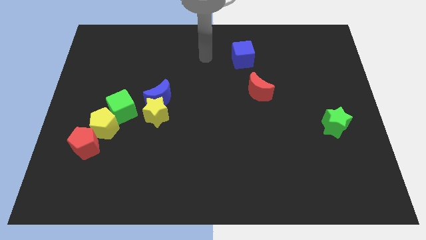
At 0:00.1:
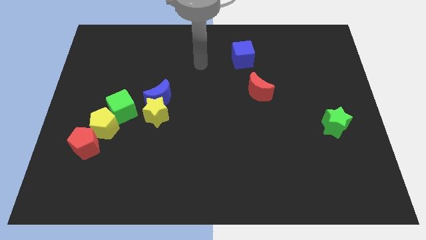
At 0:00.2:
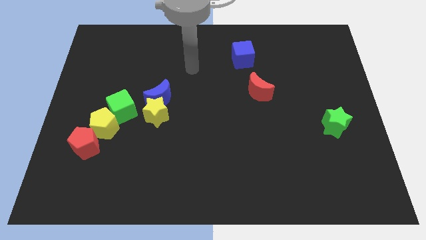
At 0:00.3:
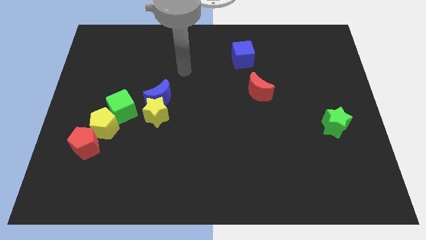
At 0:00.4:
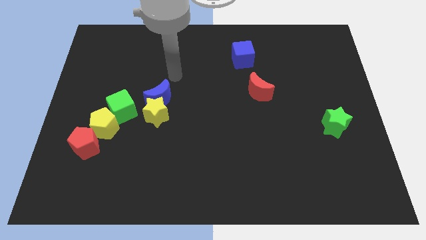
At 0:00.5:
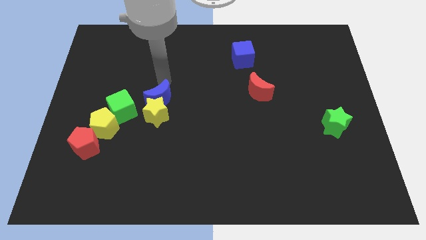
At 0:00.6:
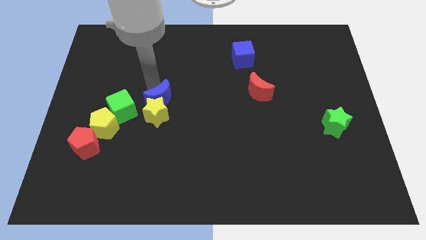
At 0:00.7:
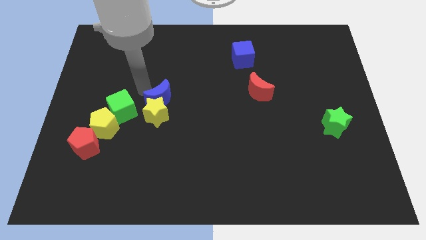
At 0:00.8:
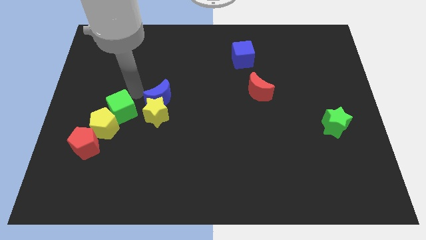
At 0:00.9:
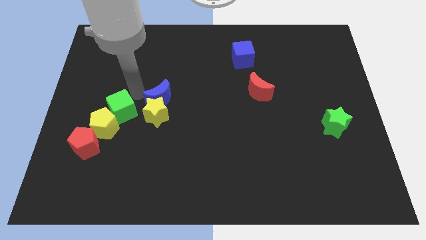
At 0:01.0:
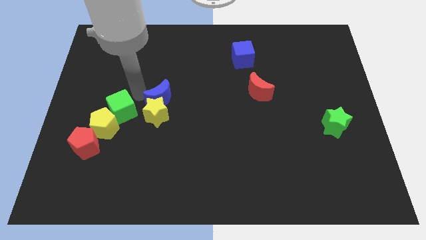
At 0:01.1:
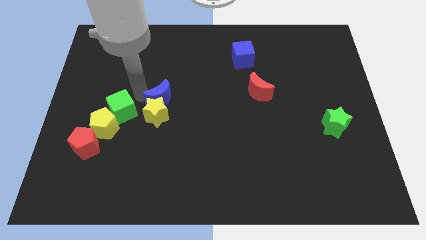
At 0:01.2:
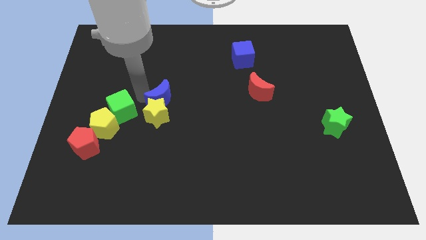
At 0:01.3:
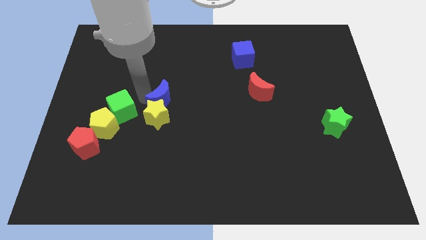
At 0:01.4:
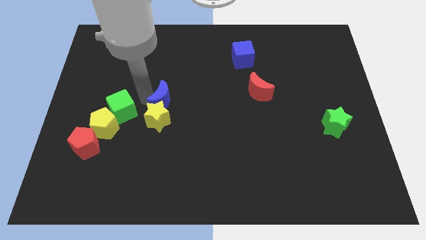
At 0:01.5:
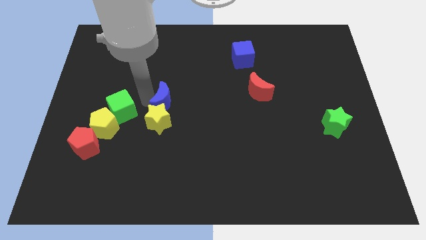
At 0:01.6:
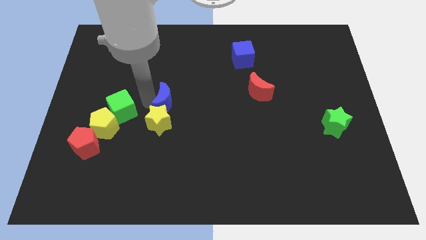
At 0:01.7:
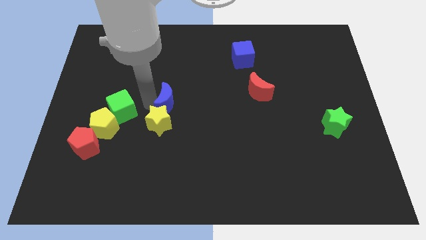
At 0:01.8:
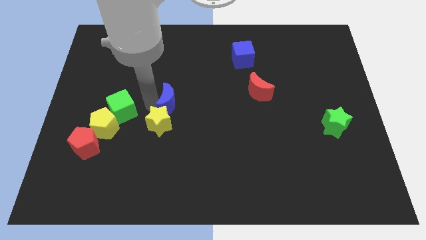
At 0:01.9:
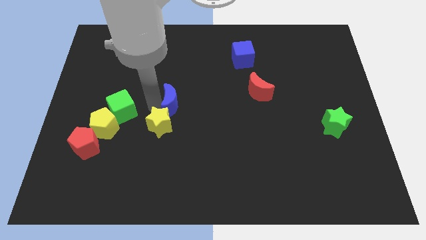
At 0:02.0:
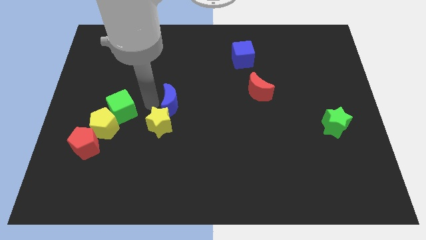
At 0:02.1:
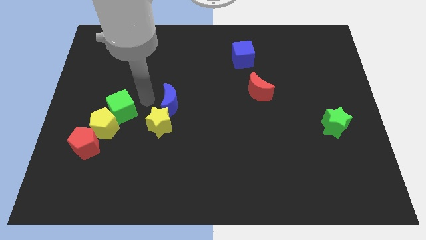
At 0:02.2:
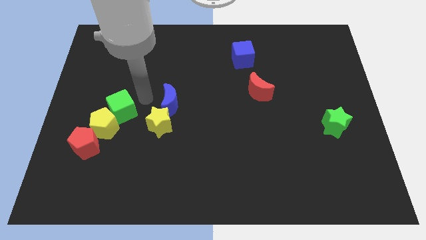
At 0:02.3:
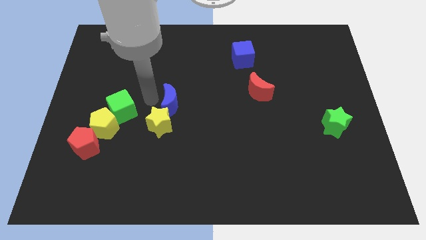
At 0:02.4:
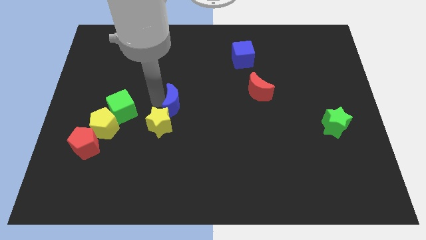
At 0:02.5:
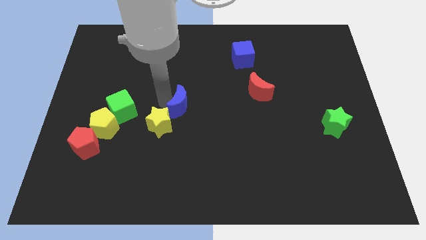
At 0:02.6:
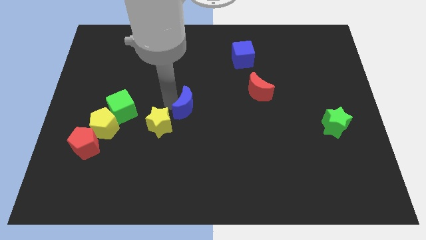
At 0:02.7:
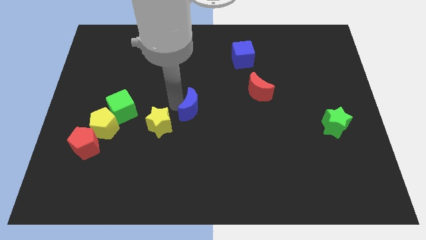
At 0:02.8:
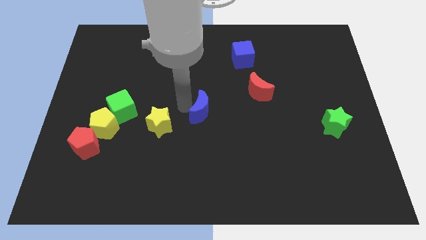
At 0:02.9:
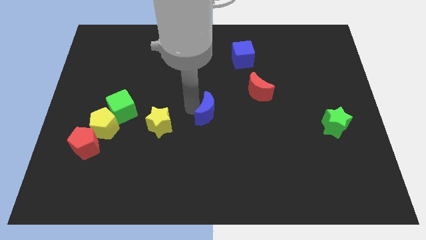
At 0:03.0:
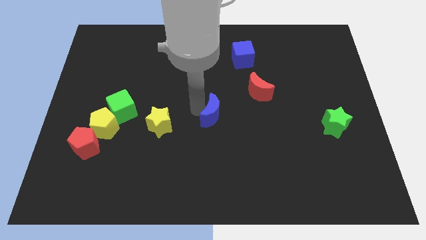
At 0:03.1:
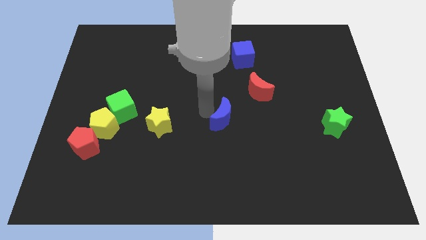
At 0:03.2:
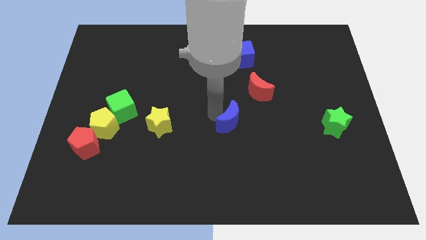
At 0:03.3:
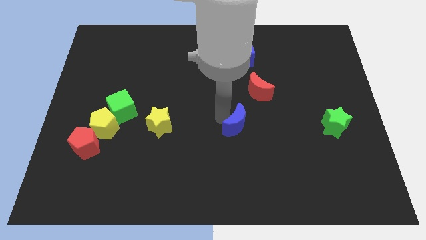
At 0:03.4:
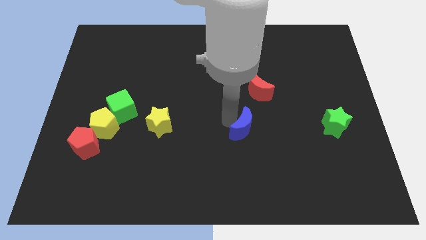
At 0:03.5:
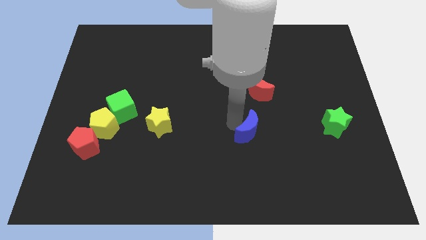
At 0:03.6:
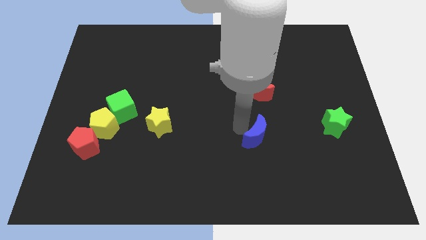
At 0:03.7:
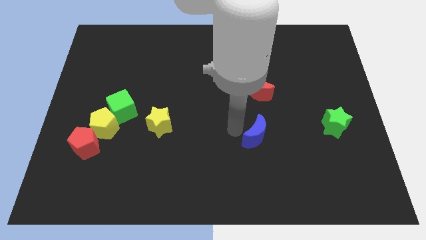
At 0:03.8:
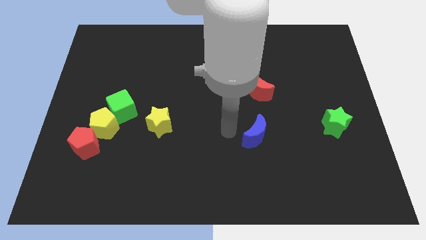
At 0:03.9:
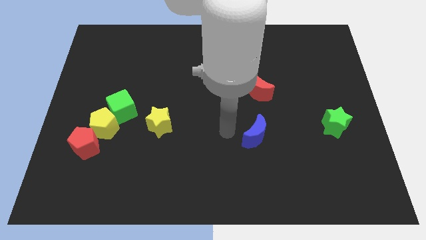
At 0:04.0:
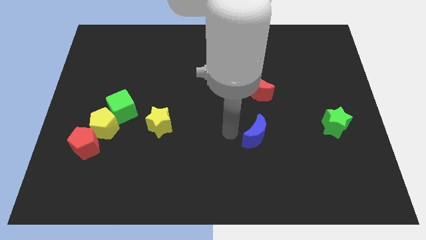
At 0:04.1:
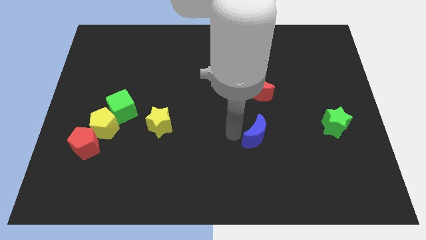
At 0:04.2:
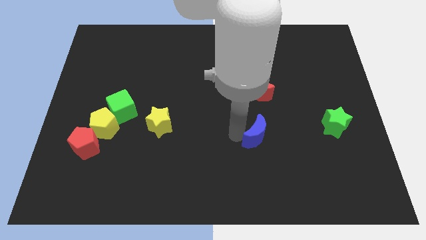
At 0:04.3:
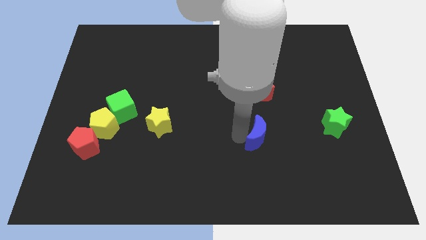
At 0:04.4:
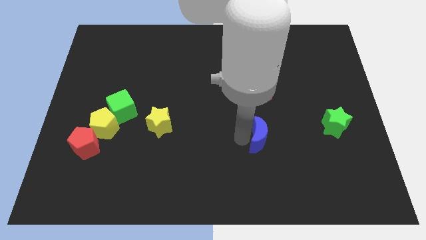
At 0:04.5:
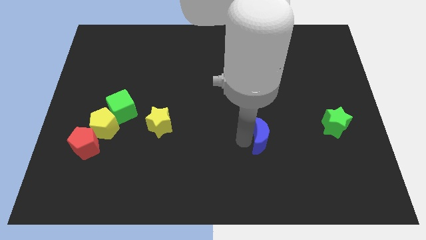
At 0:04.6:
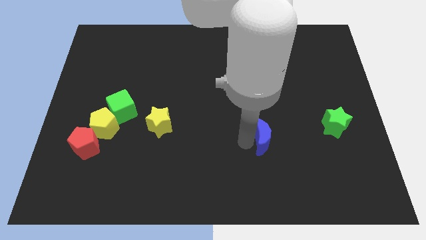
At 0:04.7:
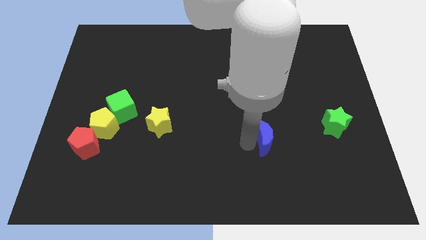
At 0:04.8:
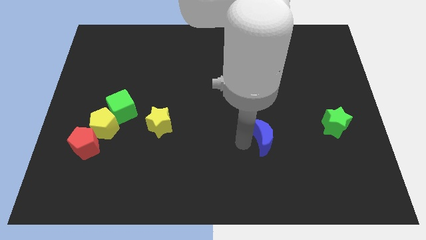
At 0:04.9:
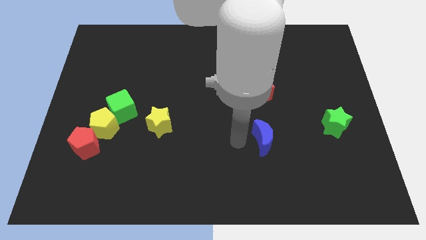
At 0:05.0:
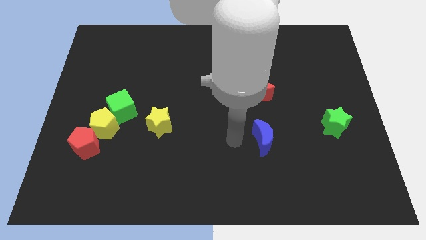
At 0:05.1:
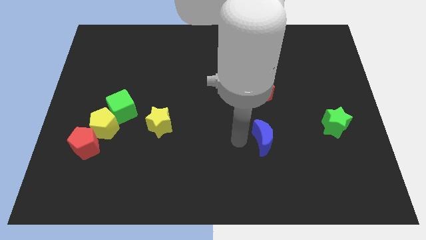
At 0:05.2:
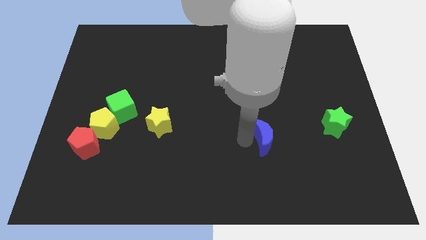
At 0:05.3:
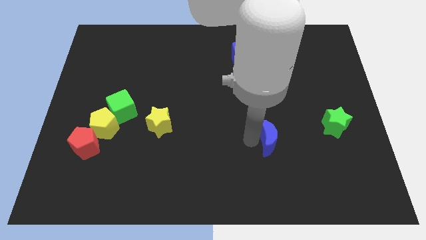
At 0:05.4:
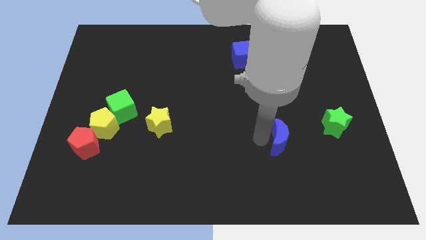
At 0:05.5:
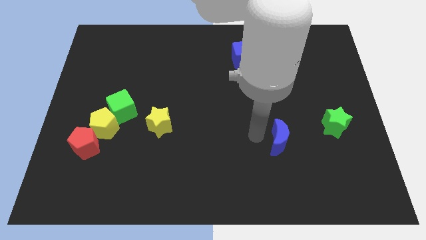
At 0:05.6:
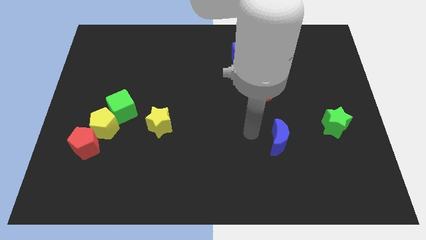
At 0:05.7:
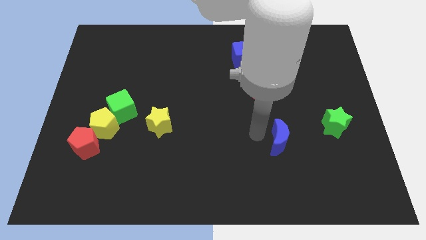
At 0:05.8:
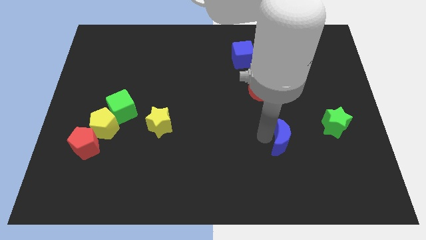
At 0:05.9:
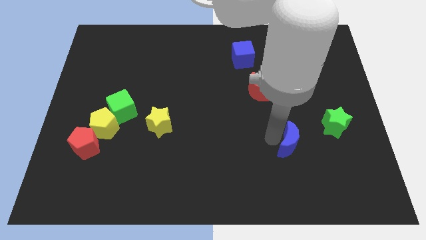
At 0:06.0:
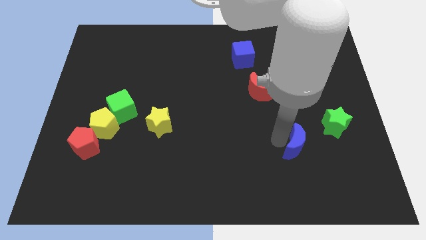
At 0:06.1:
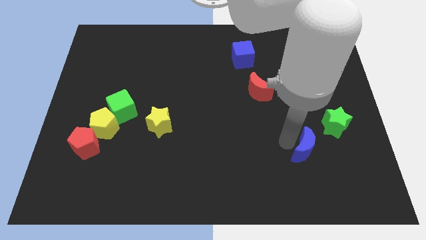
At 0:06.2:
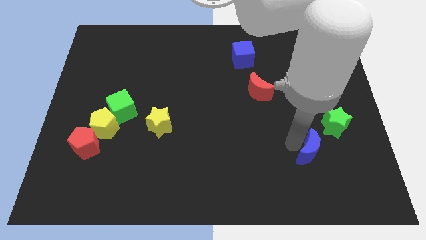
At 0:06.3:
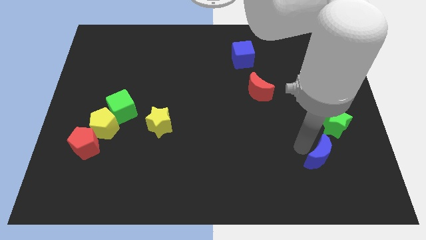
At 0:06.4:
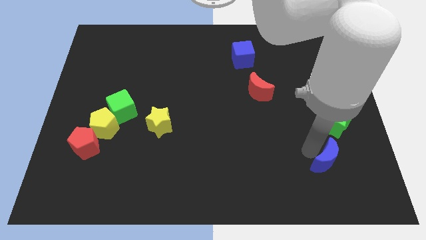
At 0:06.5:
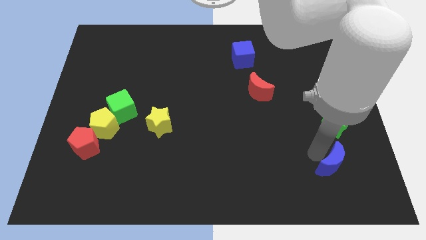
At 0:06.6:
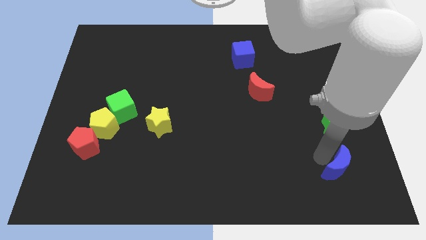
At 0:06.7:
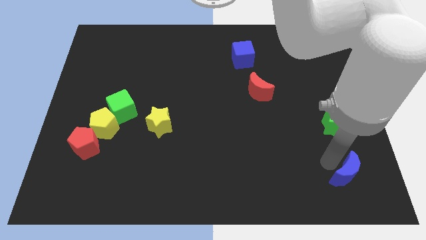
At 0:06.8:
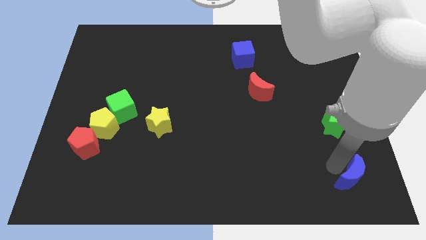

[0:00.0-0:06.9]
put the blue moon to the bottom right
